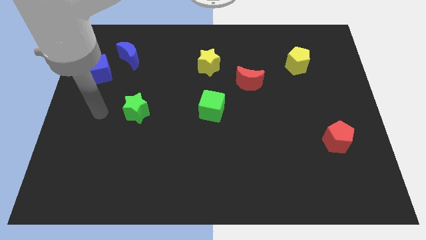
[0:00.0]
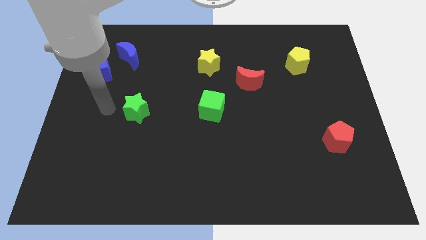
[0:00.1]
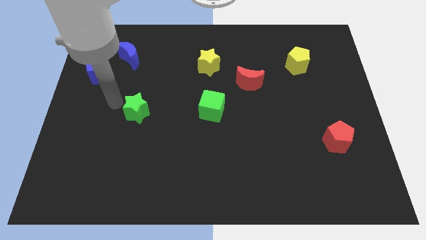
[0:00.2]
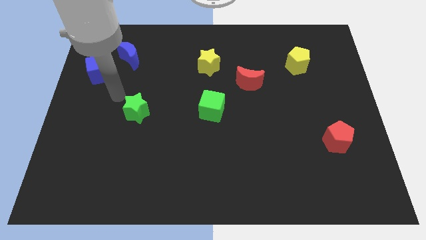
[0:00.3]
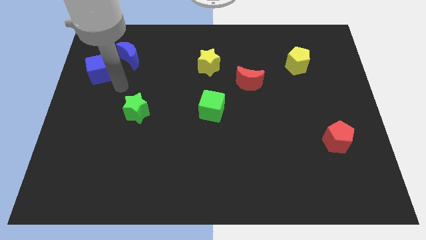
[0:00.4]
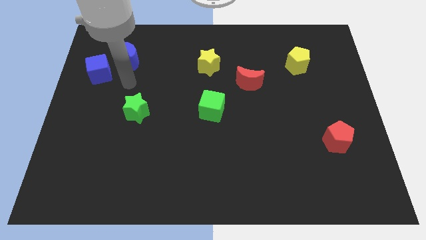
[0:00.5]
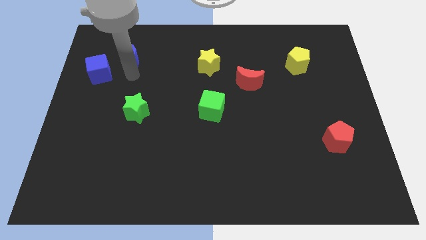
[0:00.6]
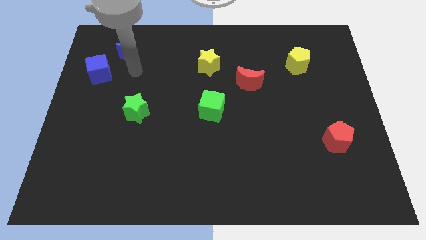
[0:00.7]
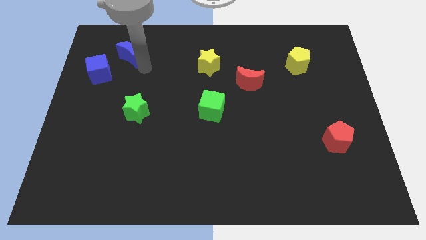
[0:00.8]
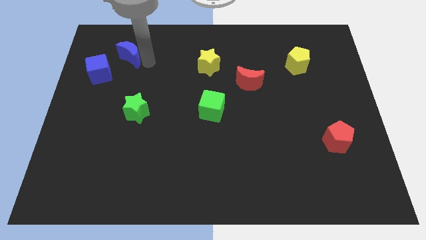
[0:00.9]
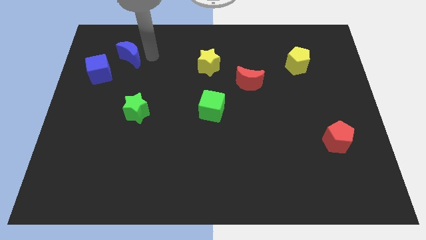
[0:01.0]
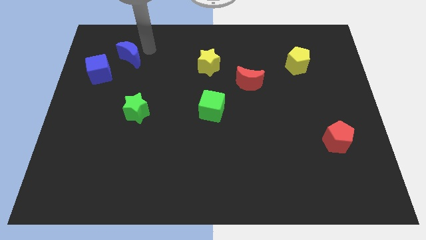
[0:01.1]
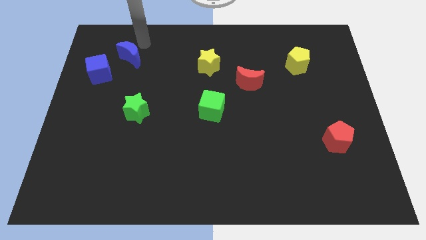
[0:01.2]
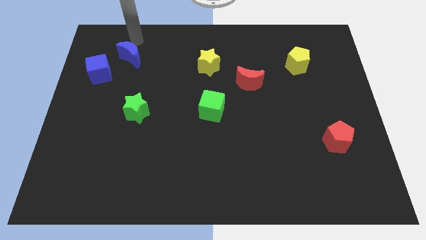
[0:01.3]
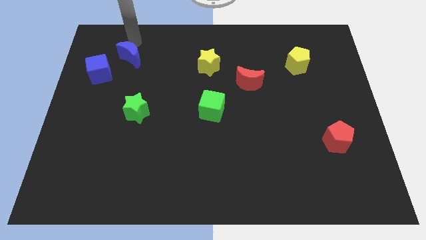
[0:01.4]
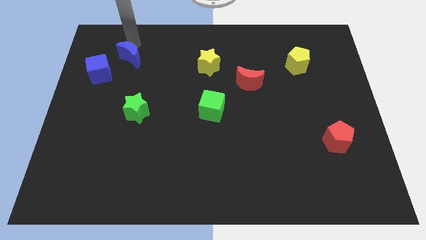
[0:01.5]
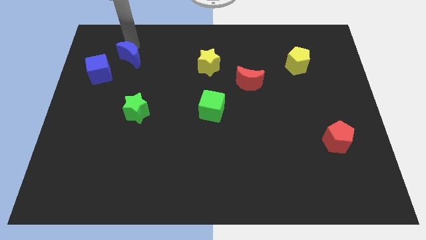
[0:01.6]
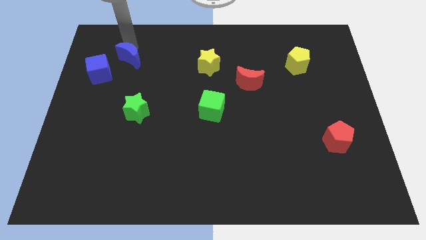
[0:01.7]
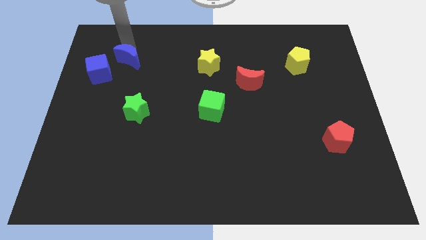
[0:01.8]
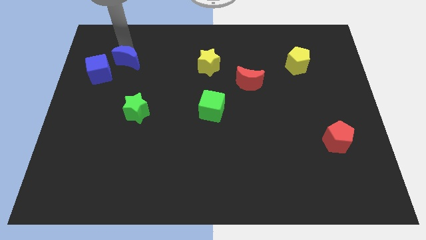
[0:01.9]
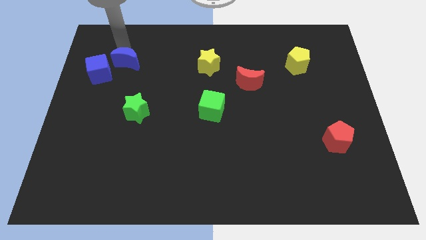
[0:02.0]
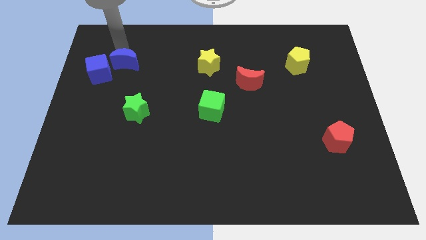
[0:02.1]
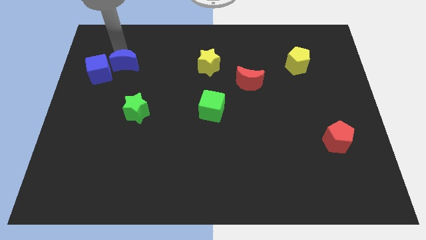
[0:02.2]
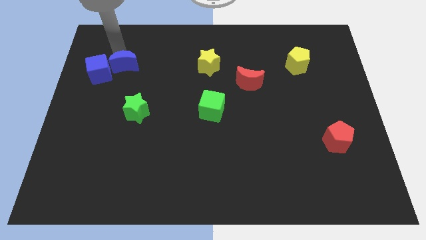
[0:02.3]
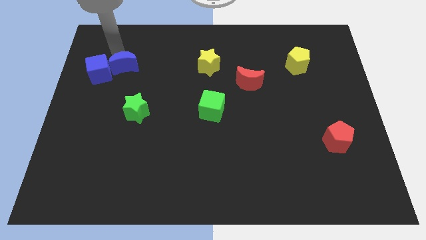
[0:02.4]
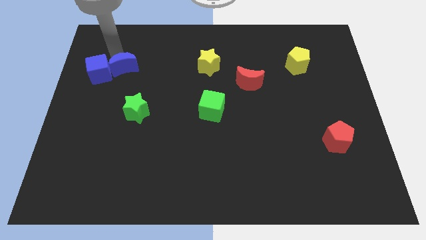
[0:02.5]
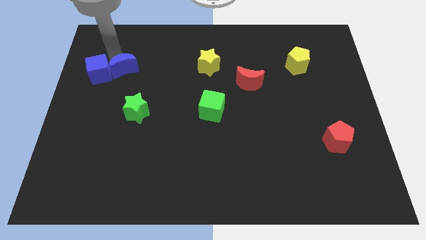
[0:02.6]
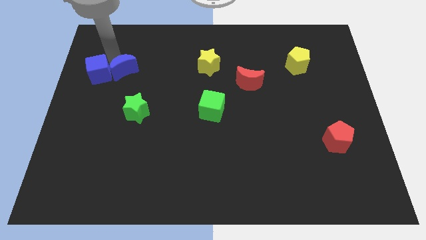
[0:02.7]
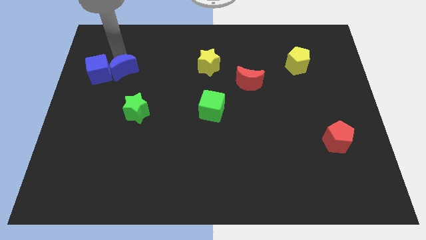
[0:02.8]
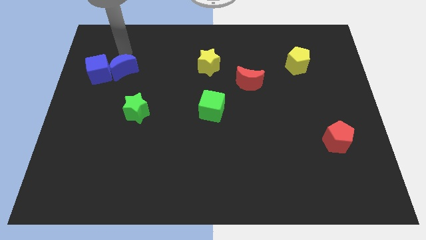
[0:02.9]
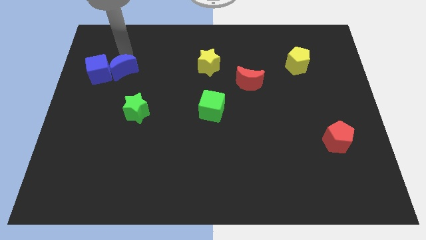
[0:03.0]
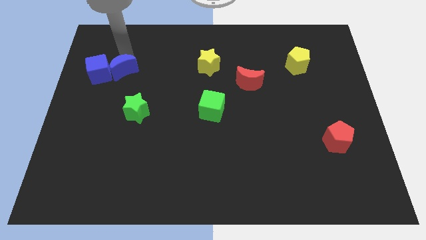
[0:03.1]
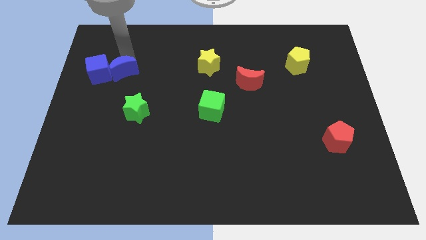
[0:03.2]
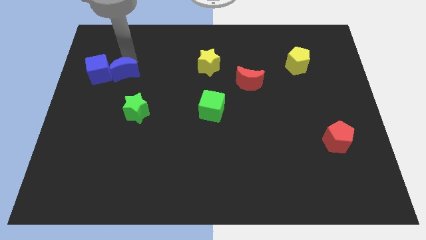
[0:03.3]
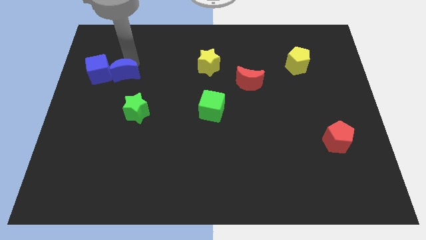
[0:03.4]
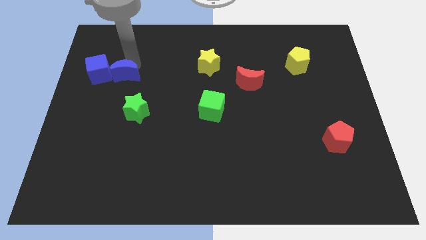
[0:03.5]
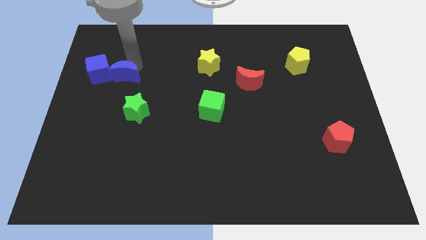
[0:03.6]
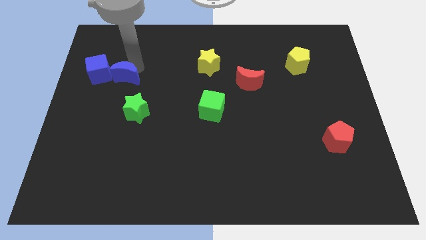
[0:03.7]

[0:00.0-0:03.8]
move the blue moon a bit down

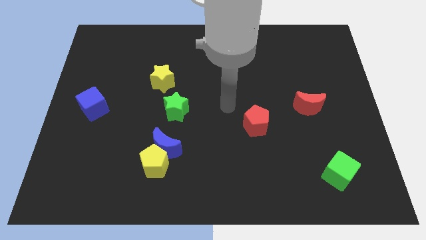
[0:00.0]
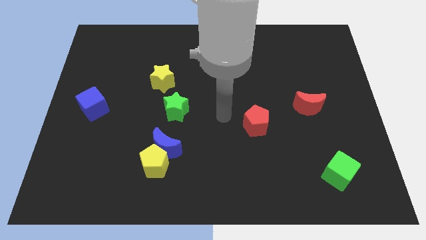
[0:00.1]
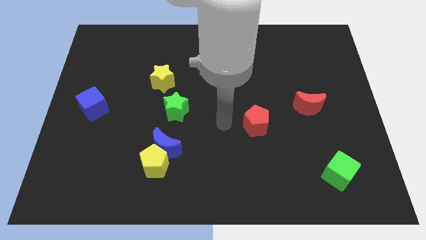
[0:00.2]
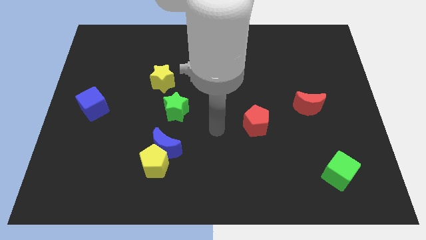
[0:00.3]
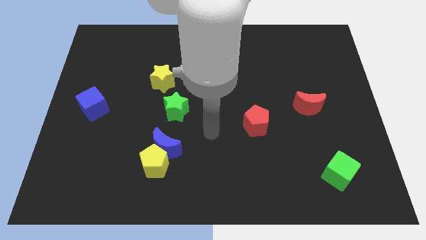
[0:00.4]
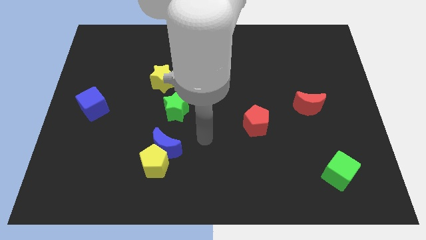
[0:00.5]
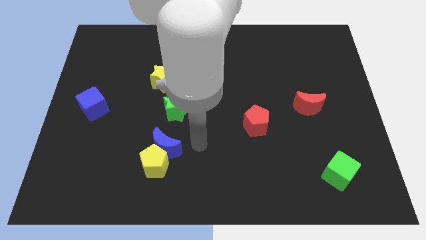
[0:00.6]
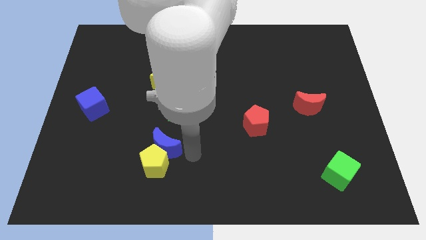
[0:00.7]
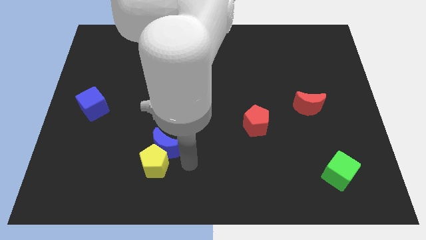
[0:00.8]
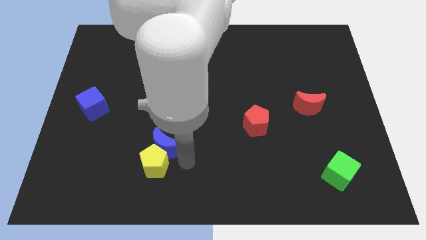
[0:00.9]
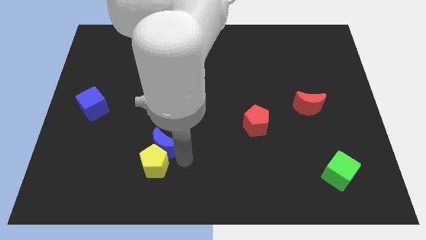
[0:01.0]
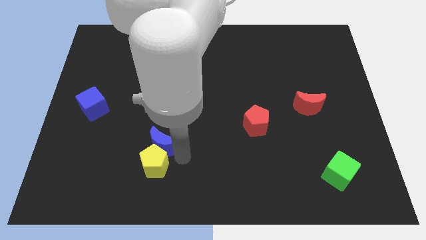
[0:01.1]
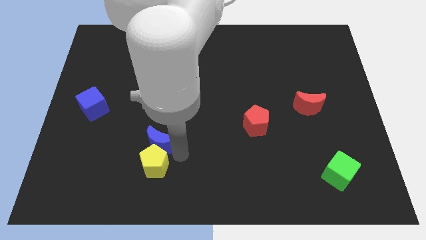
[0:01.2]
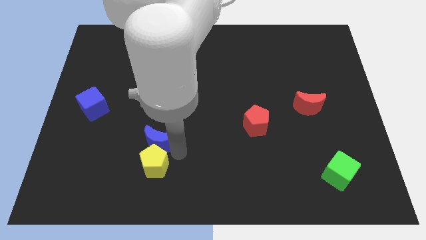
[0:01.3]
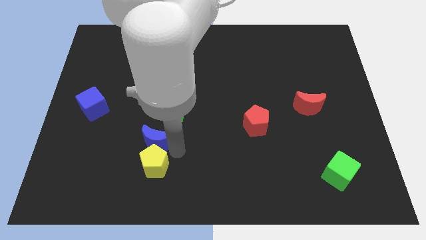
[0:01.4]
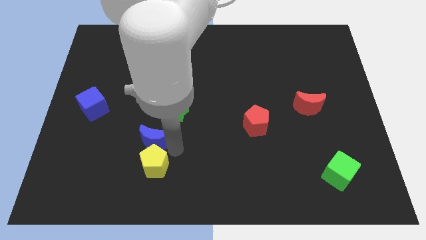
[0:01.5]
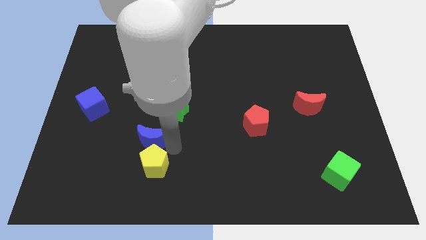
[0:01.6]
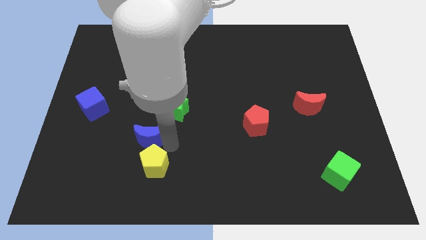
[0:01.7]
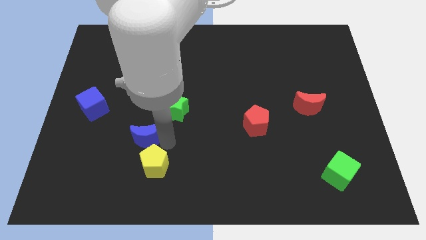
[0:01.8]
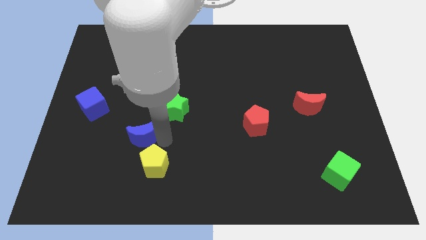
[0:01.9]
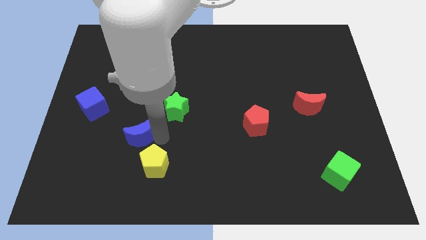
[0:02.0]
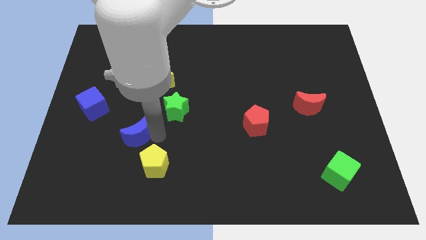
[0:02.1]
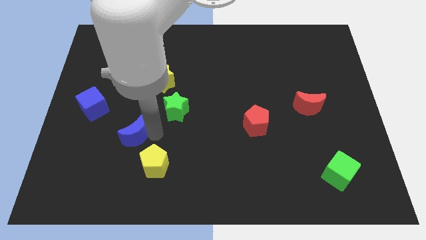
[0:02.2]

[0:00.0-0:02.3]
push the blue moon a little bit up and then left

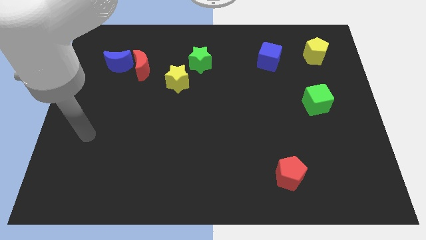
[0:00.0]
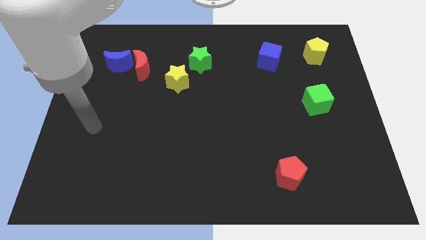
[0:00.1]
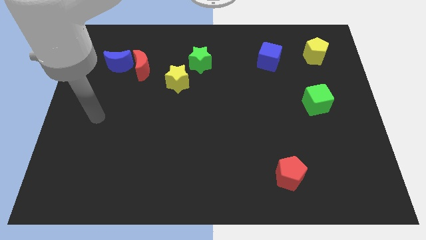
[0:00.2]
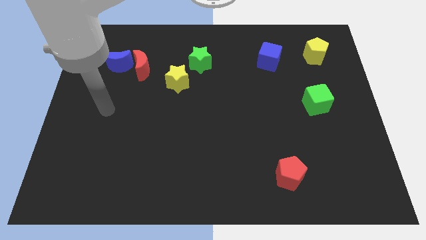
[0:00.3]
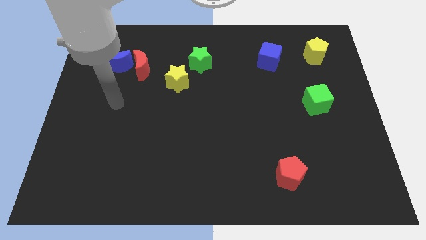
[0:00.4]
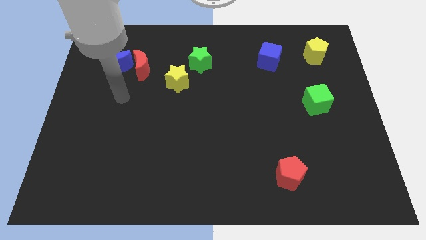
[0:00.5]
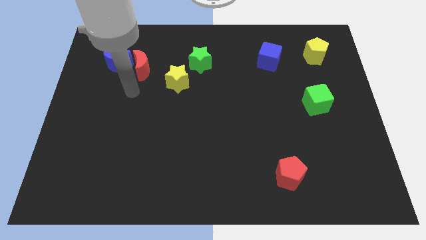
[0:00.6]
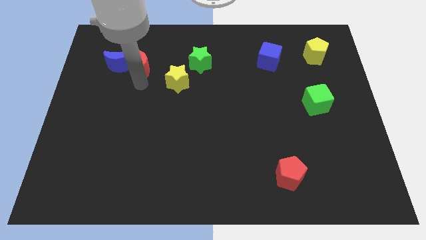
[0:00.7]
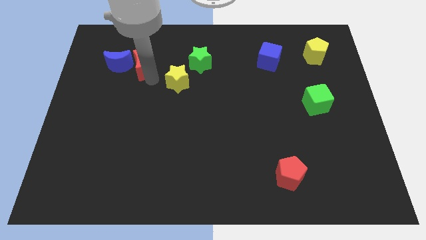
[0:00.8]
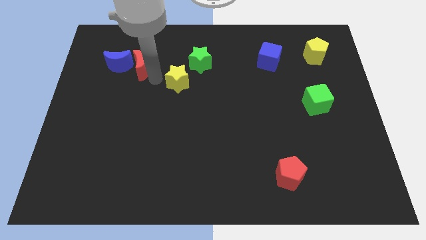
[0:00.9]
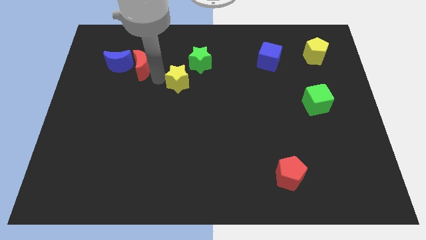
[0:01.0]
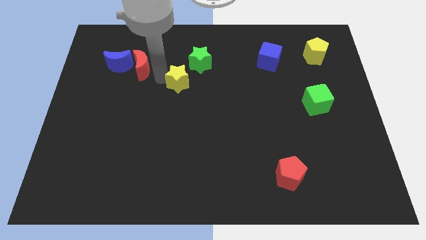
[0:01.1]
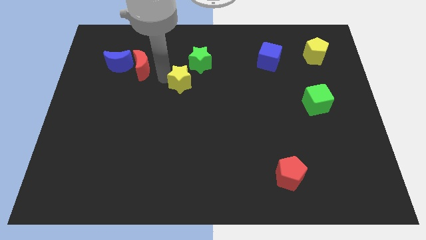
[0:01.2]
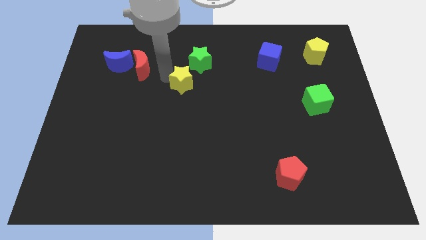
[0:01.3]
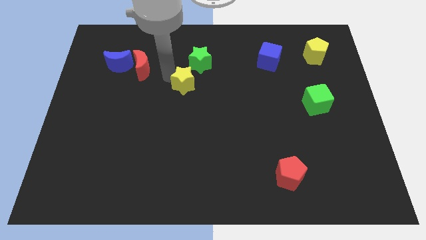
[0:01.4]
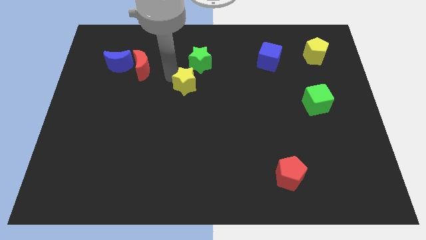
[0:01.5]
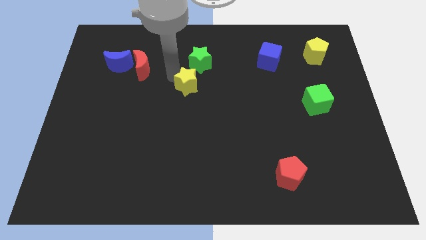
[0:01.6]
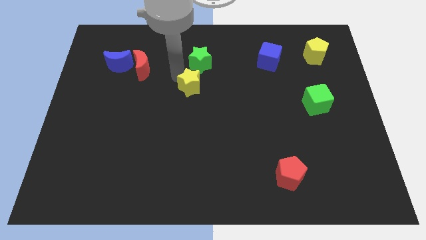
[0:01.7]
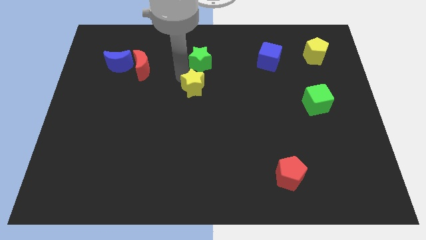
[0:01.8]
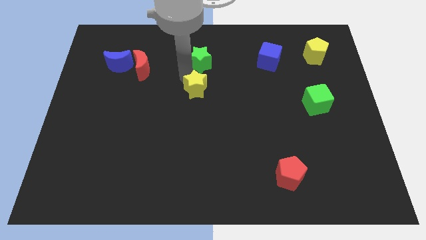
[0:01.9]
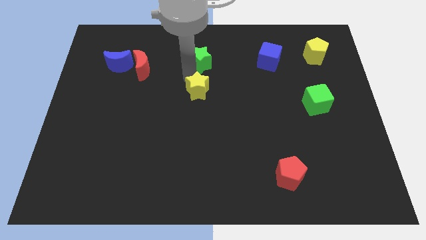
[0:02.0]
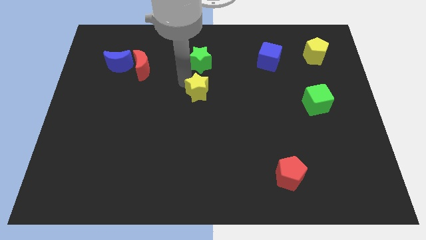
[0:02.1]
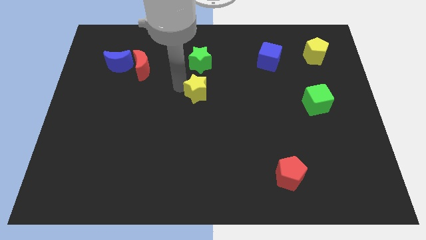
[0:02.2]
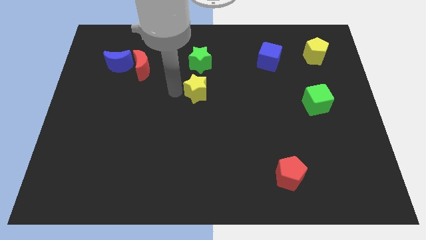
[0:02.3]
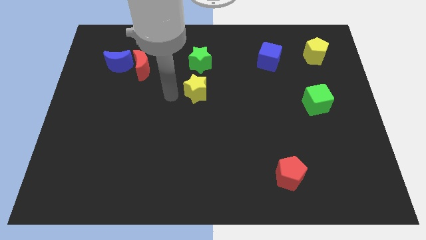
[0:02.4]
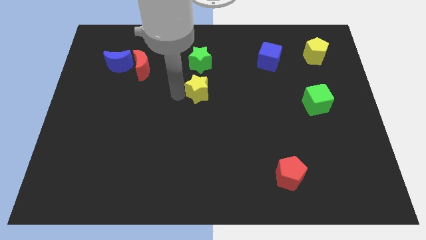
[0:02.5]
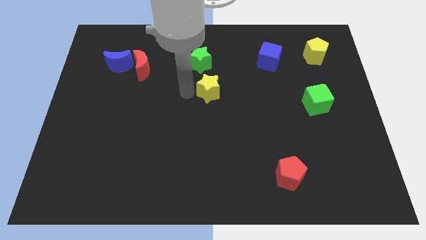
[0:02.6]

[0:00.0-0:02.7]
move the yellow star a little bit to the right
